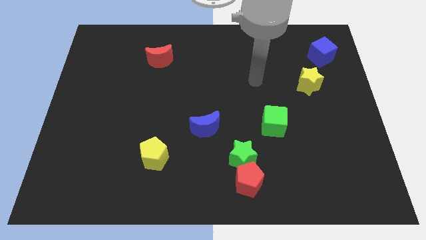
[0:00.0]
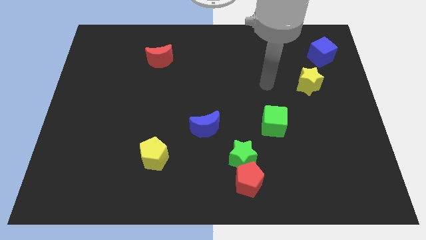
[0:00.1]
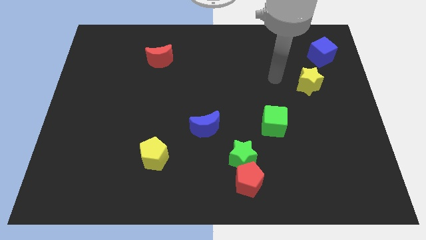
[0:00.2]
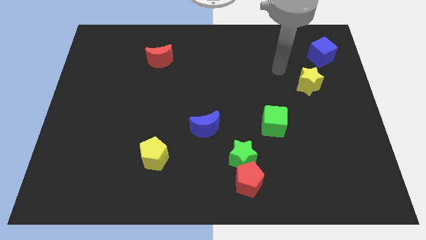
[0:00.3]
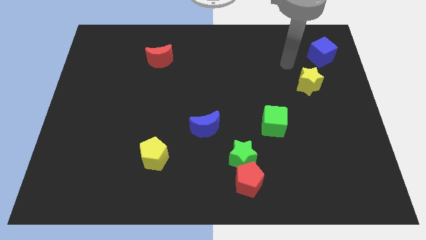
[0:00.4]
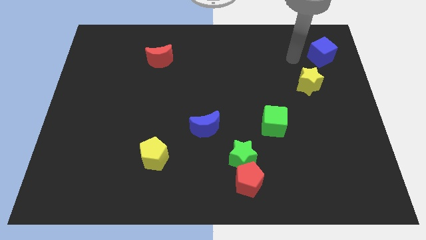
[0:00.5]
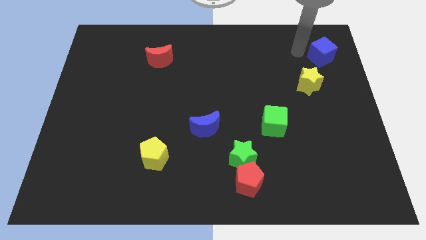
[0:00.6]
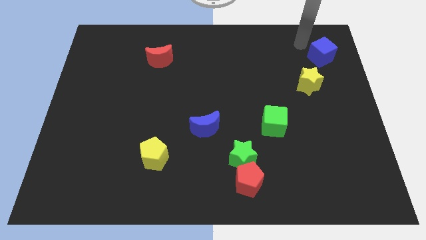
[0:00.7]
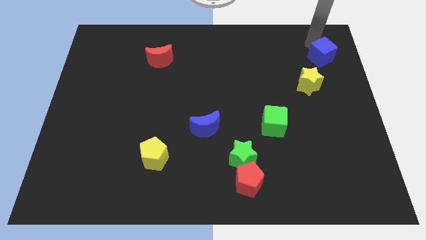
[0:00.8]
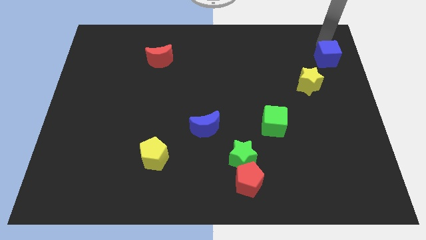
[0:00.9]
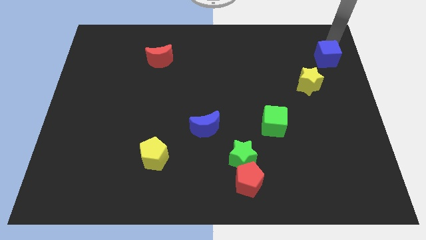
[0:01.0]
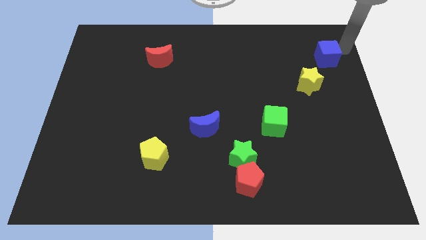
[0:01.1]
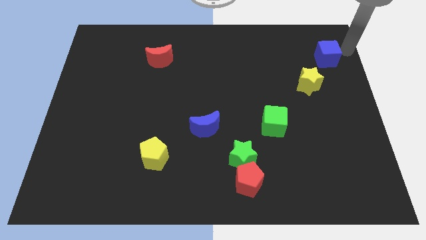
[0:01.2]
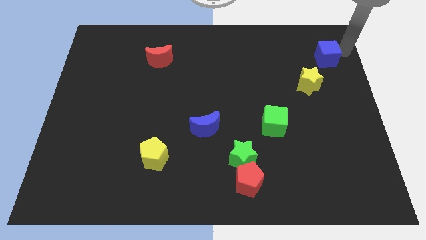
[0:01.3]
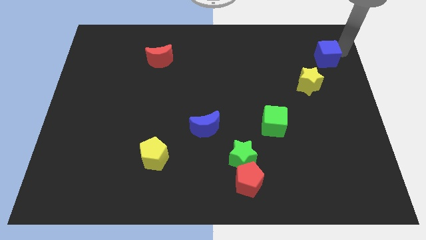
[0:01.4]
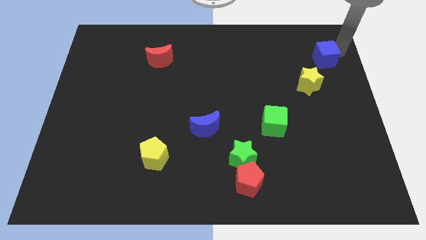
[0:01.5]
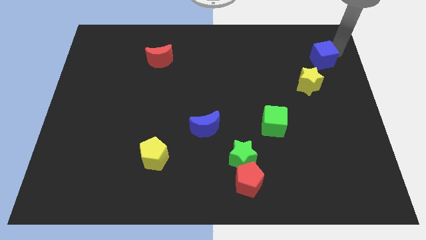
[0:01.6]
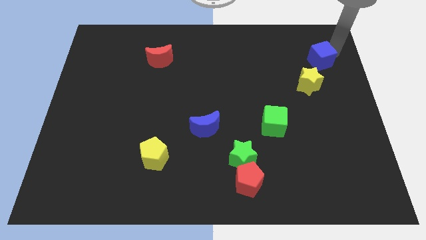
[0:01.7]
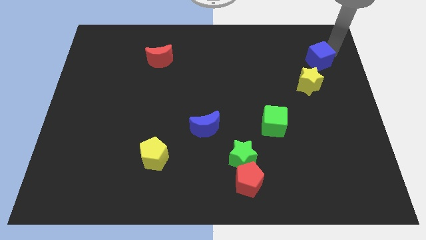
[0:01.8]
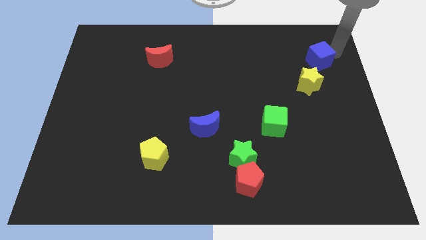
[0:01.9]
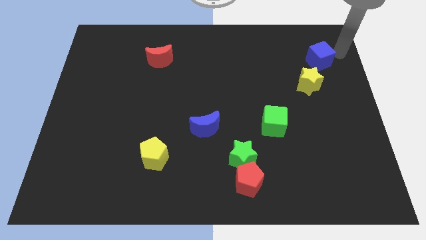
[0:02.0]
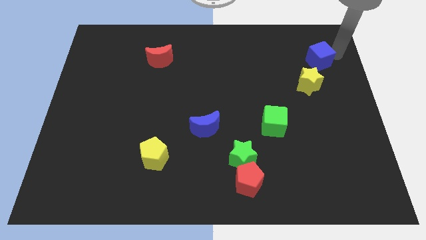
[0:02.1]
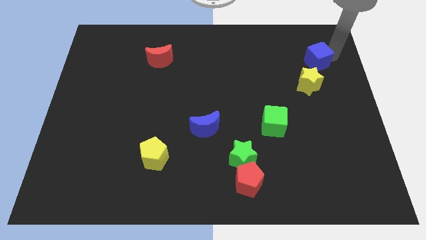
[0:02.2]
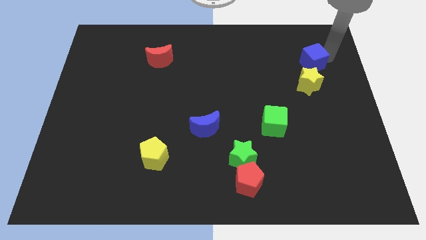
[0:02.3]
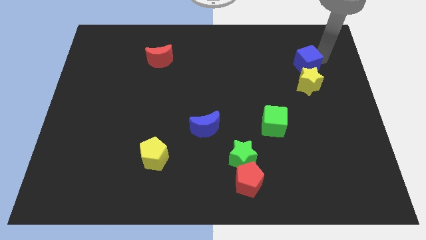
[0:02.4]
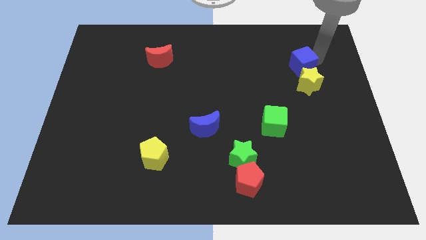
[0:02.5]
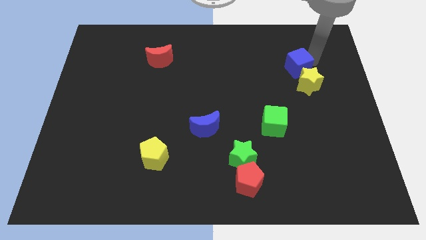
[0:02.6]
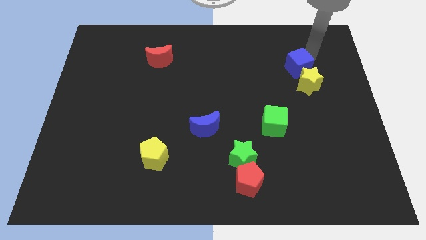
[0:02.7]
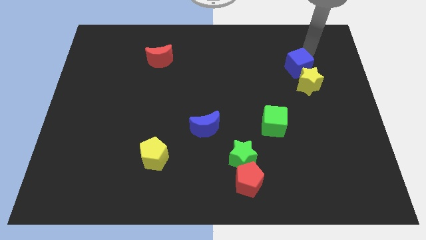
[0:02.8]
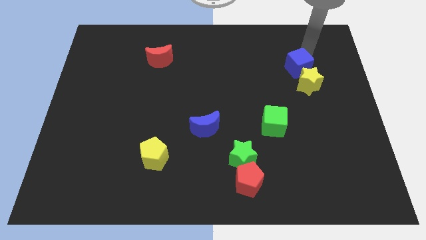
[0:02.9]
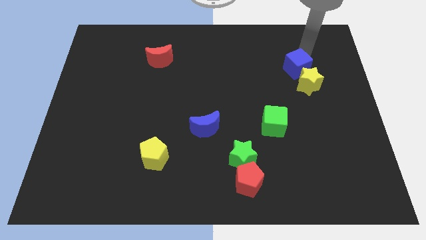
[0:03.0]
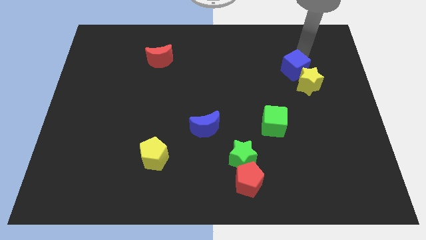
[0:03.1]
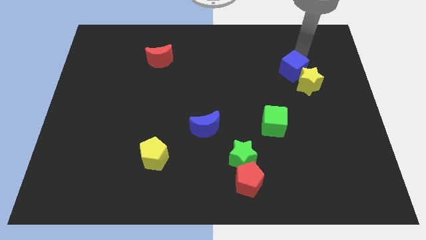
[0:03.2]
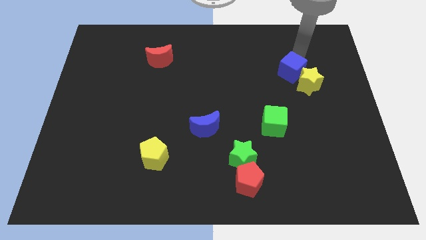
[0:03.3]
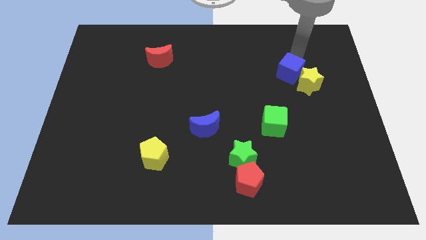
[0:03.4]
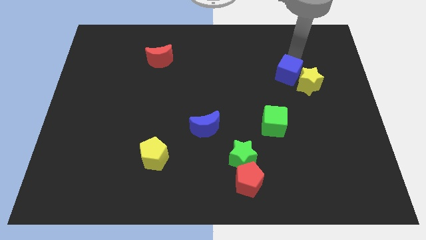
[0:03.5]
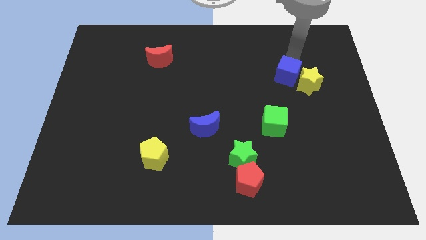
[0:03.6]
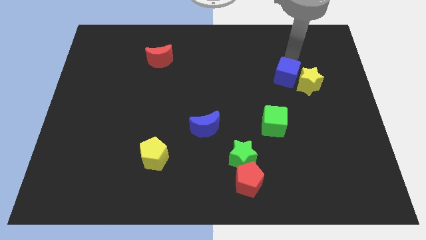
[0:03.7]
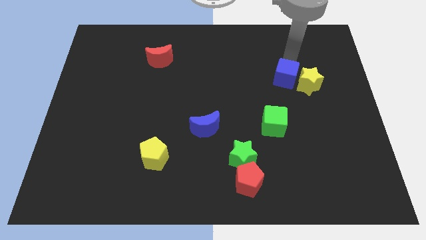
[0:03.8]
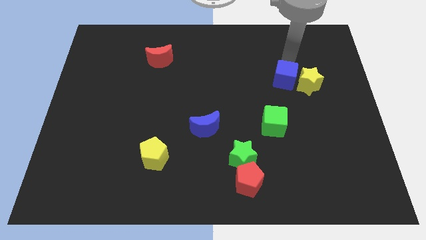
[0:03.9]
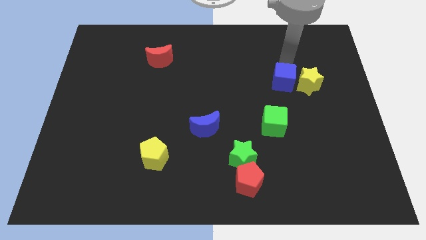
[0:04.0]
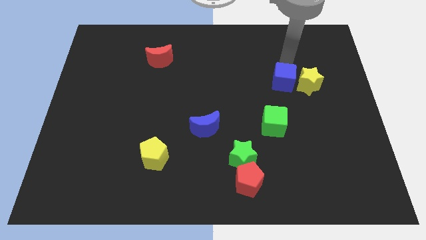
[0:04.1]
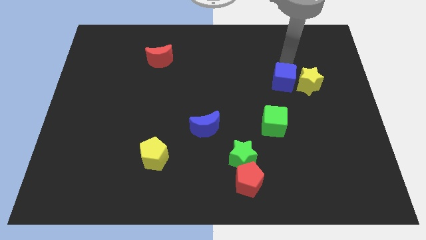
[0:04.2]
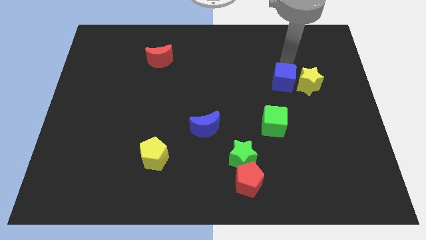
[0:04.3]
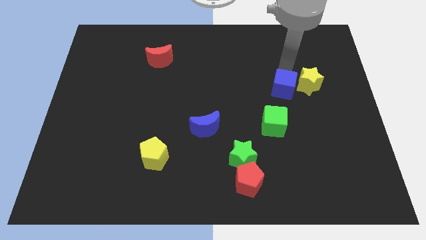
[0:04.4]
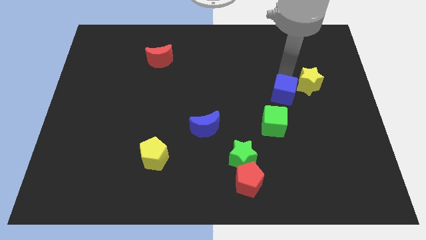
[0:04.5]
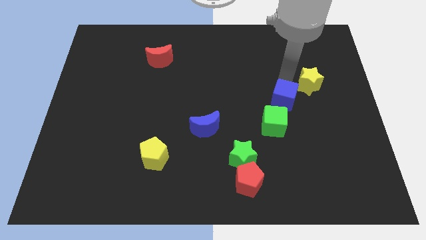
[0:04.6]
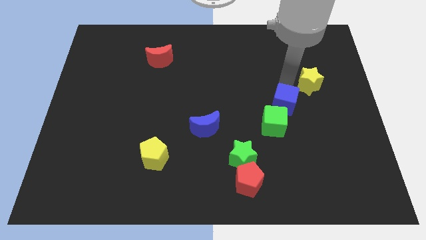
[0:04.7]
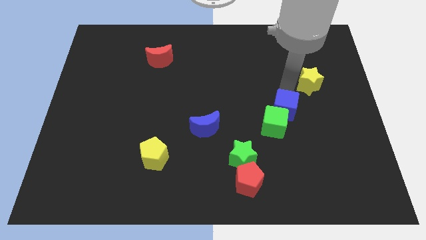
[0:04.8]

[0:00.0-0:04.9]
put the blue cube towards the green cube

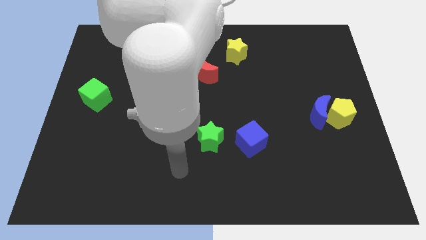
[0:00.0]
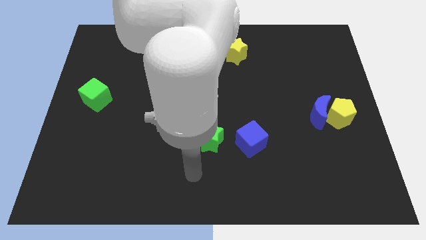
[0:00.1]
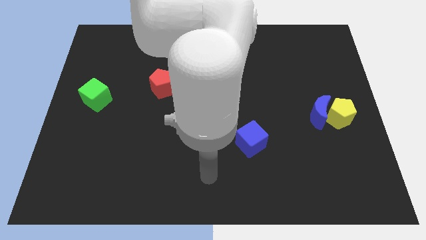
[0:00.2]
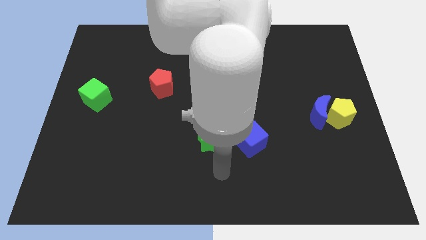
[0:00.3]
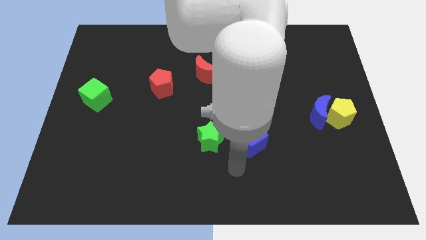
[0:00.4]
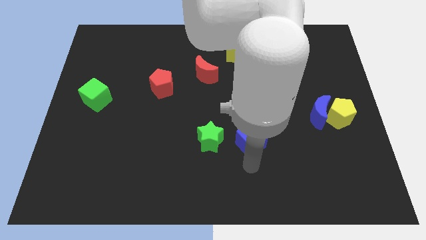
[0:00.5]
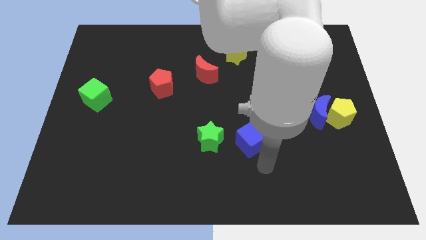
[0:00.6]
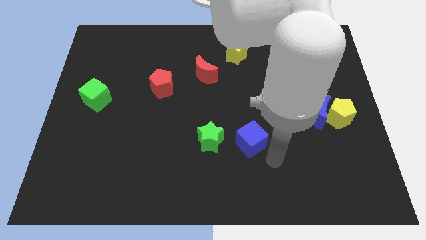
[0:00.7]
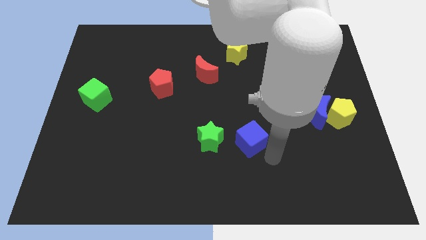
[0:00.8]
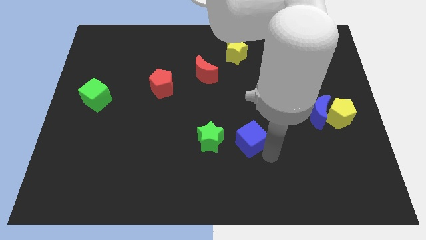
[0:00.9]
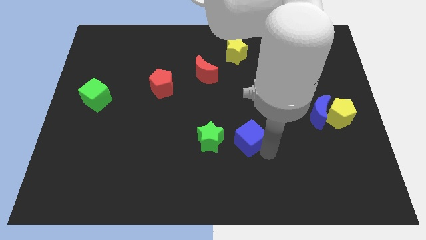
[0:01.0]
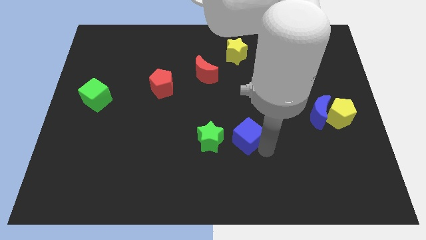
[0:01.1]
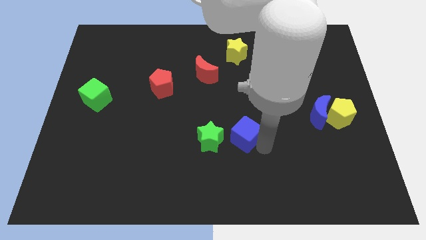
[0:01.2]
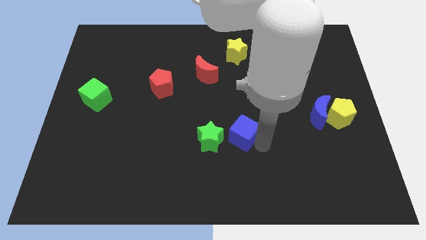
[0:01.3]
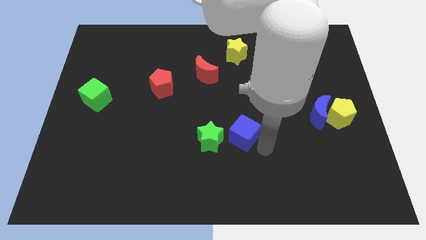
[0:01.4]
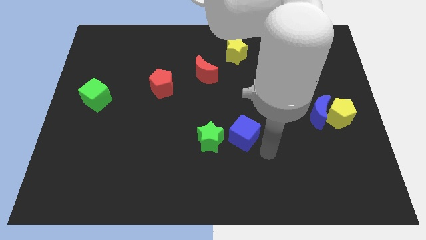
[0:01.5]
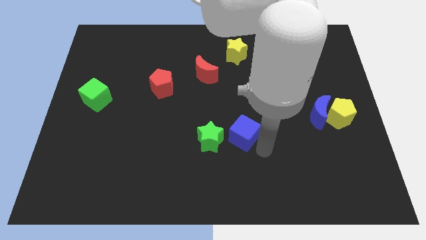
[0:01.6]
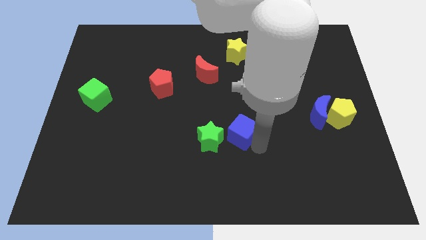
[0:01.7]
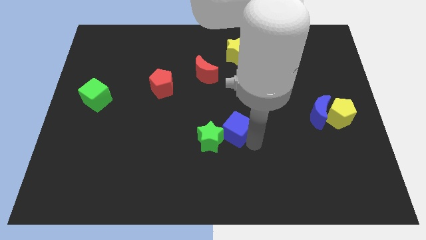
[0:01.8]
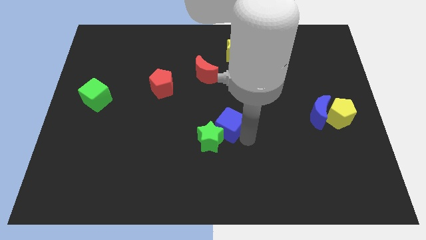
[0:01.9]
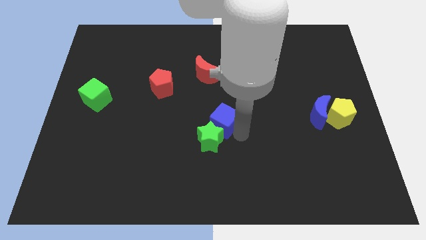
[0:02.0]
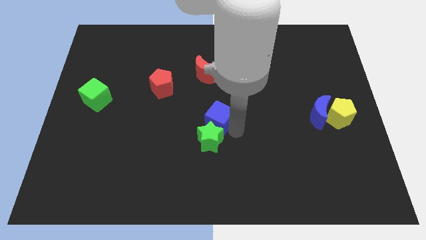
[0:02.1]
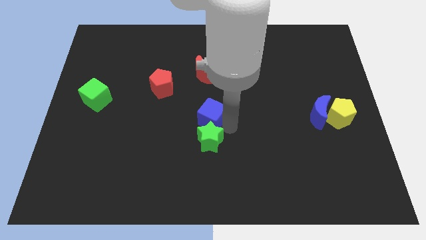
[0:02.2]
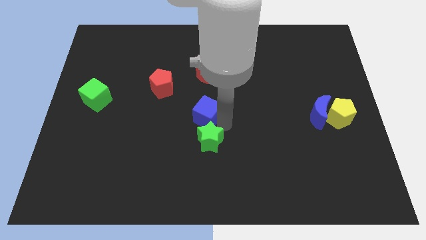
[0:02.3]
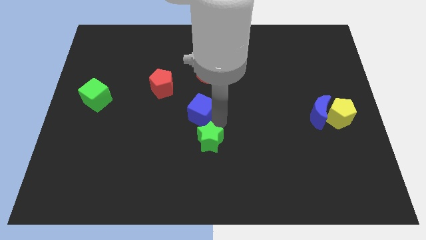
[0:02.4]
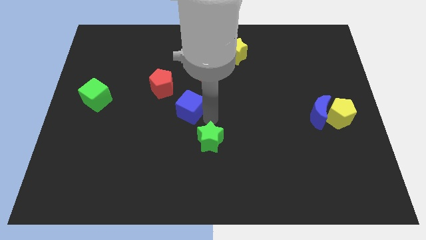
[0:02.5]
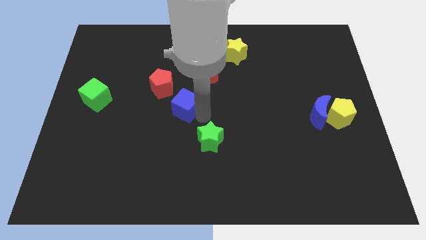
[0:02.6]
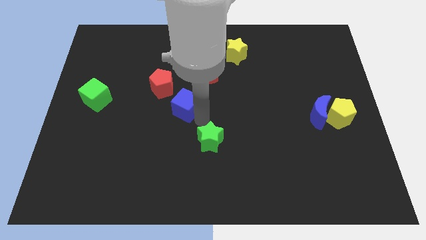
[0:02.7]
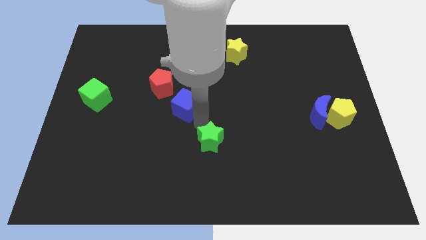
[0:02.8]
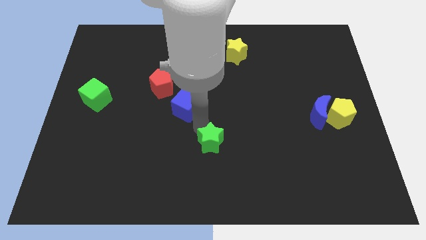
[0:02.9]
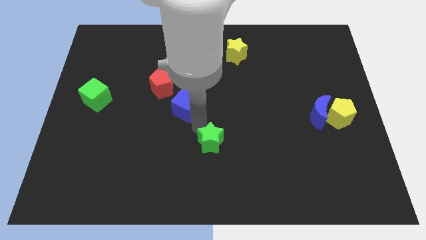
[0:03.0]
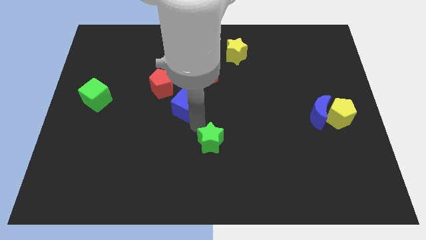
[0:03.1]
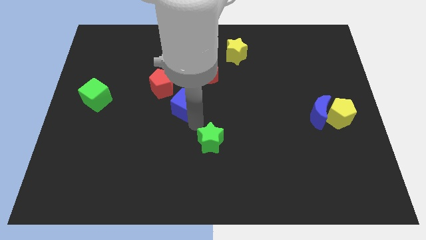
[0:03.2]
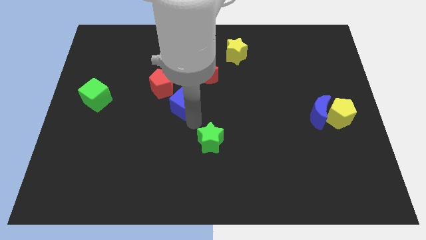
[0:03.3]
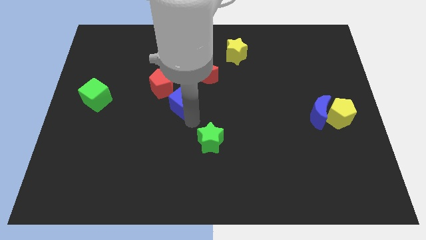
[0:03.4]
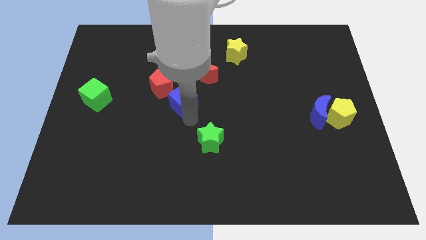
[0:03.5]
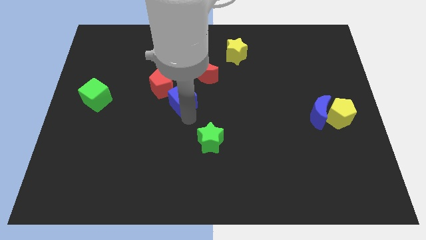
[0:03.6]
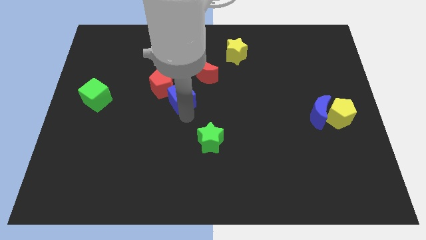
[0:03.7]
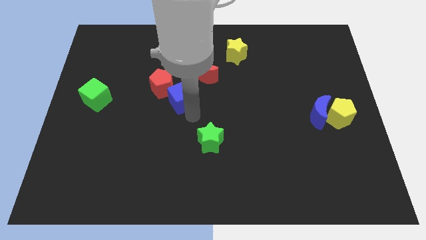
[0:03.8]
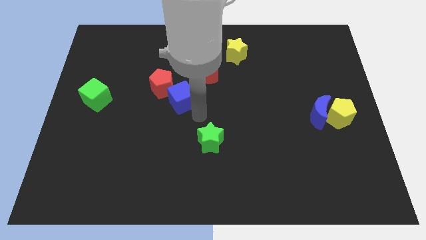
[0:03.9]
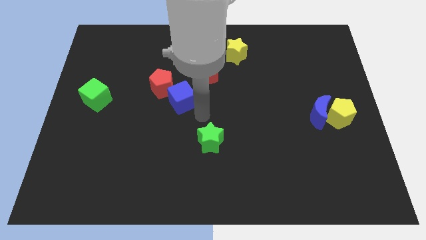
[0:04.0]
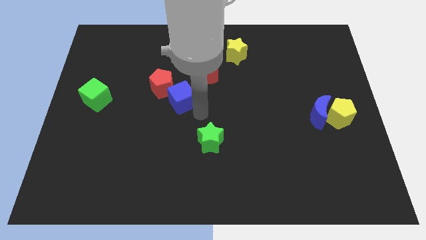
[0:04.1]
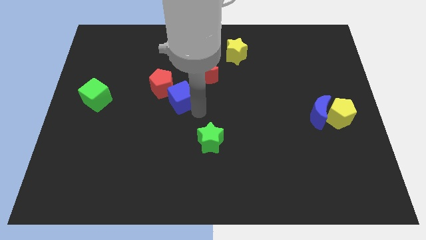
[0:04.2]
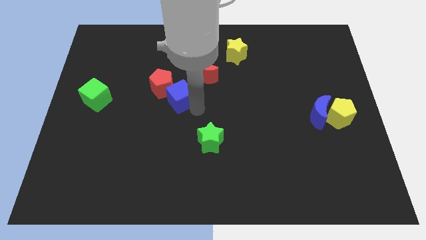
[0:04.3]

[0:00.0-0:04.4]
slide the blue cube towards the red pentagon
